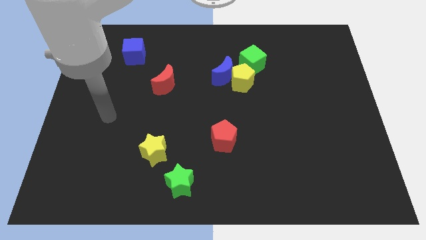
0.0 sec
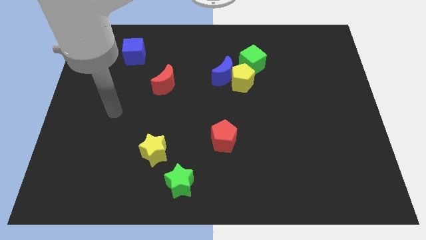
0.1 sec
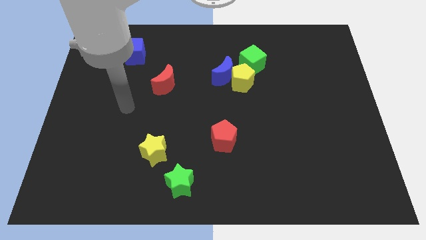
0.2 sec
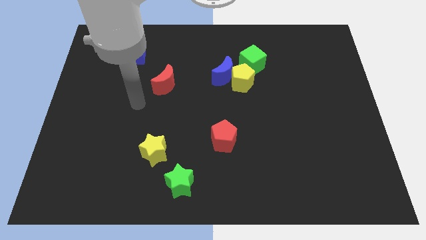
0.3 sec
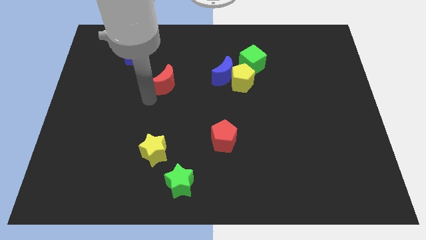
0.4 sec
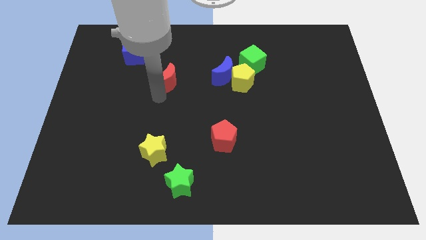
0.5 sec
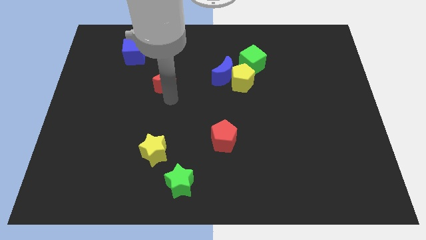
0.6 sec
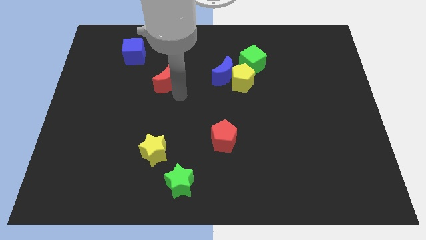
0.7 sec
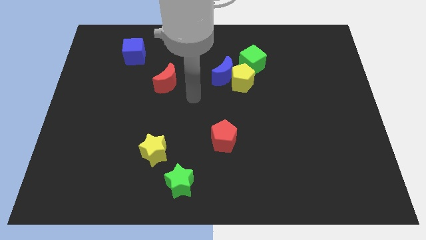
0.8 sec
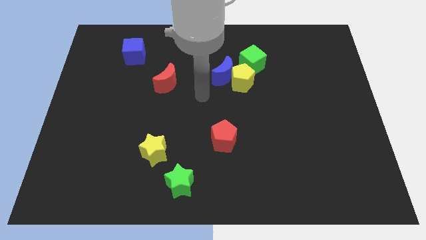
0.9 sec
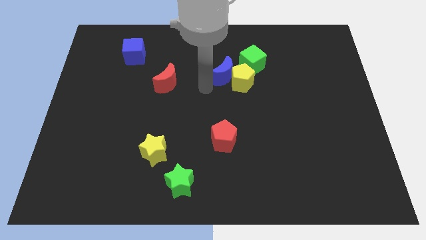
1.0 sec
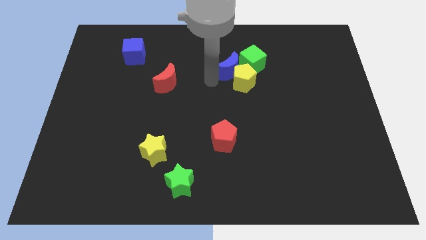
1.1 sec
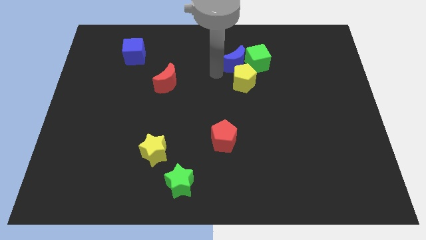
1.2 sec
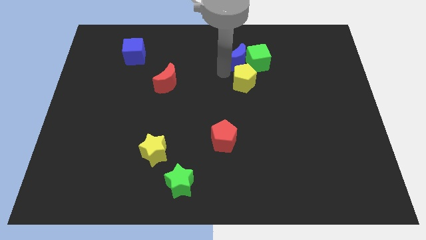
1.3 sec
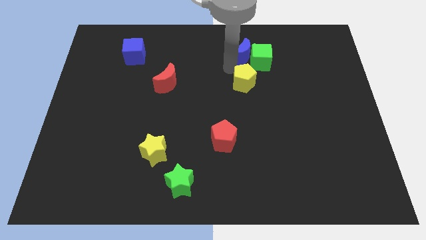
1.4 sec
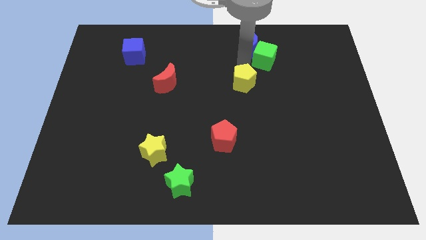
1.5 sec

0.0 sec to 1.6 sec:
move the yellow pentagon away from the blue moon and green cube

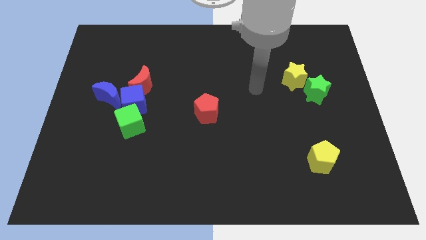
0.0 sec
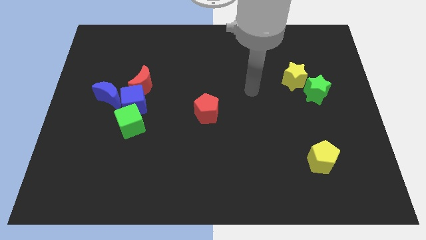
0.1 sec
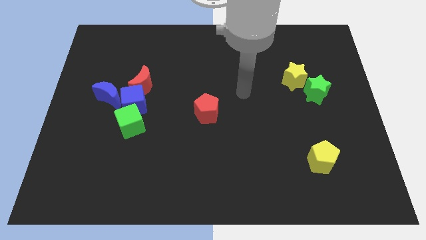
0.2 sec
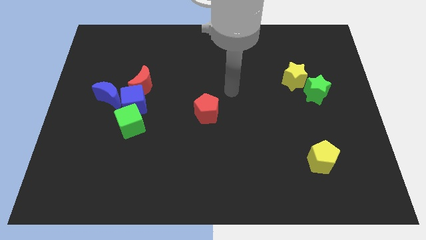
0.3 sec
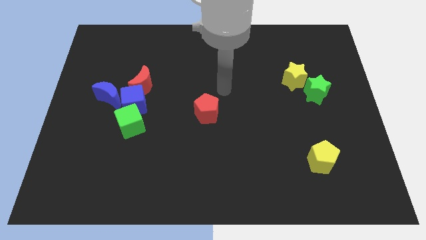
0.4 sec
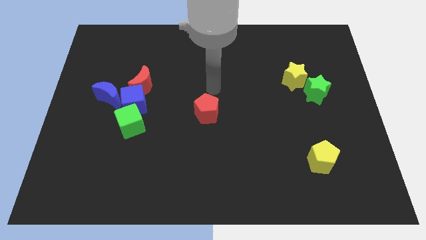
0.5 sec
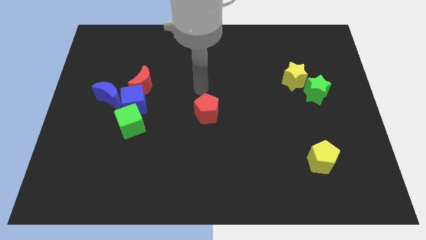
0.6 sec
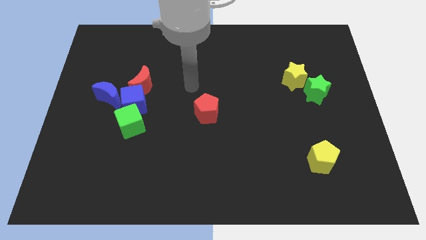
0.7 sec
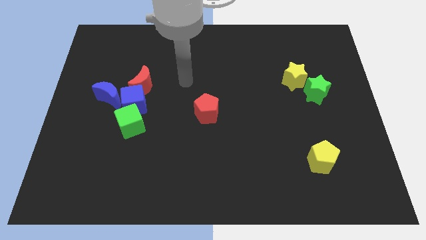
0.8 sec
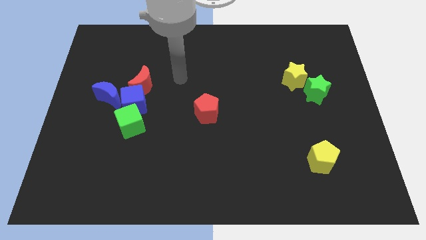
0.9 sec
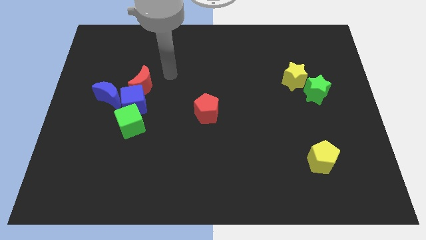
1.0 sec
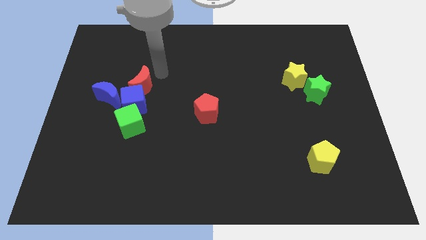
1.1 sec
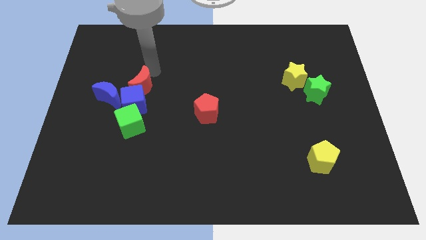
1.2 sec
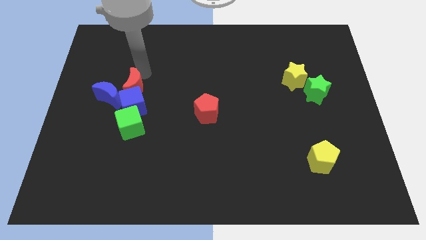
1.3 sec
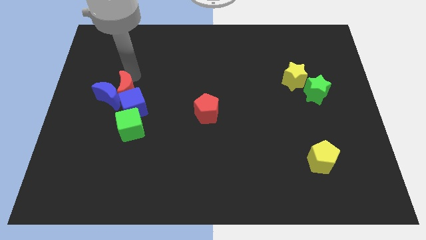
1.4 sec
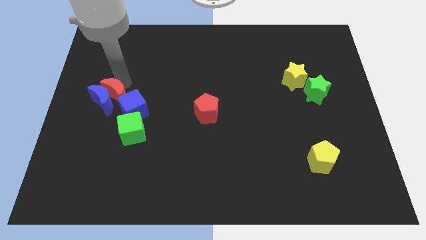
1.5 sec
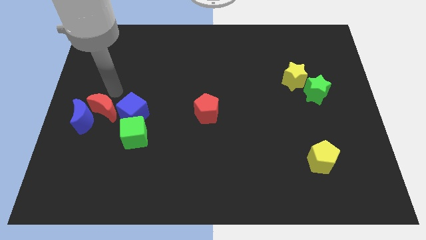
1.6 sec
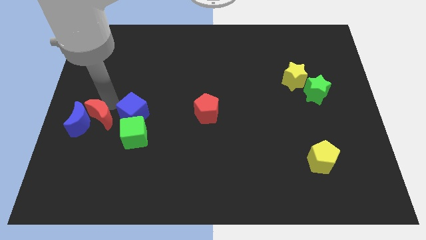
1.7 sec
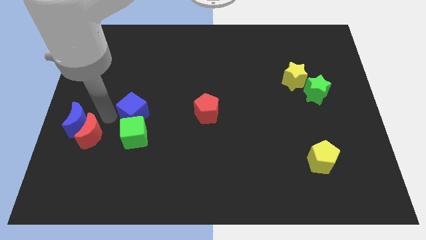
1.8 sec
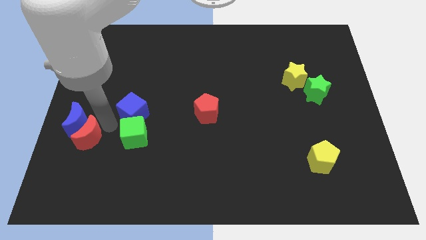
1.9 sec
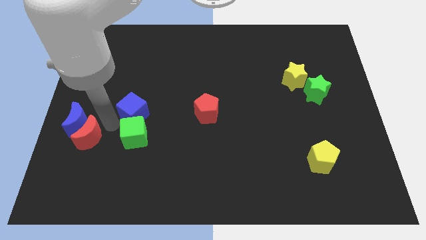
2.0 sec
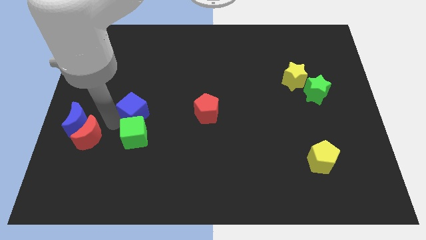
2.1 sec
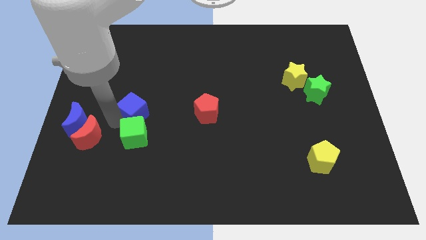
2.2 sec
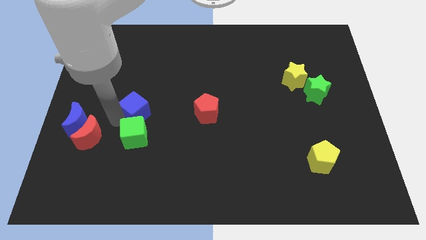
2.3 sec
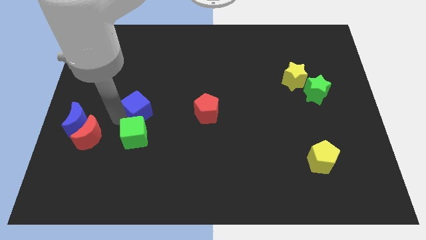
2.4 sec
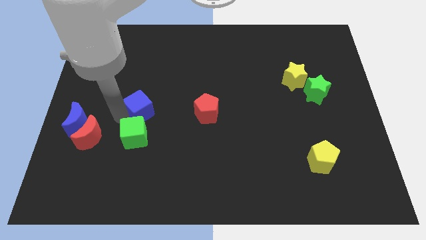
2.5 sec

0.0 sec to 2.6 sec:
move the blue cube away from the red moon, green cube, and blue moon

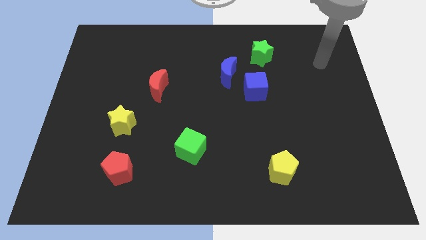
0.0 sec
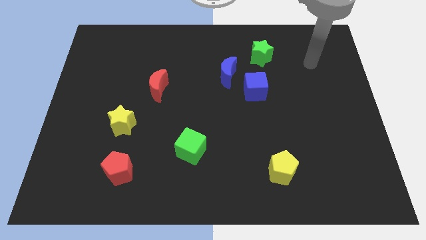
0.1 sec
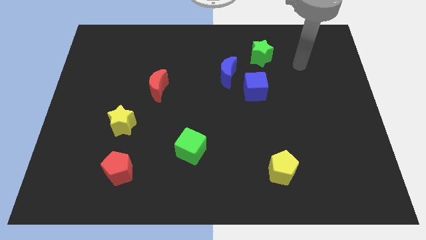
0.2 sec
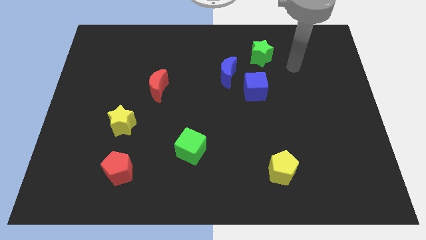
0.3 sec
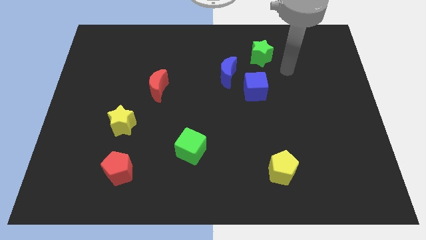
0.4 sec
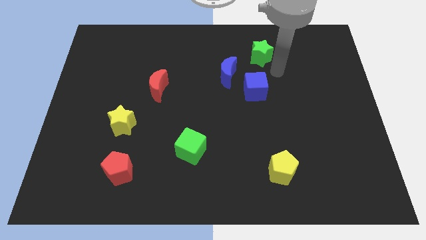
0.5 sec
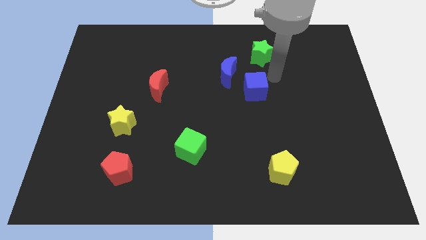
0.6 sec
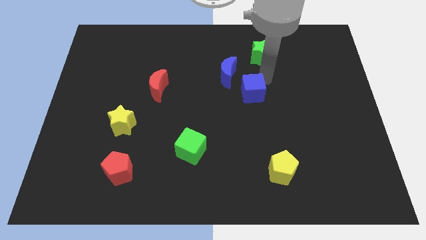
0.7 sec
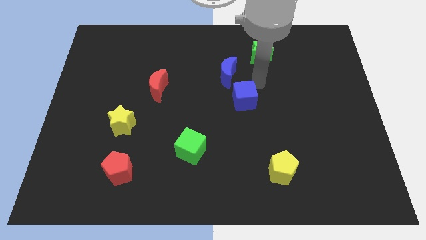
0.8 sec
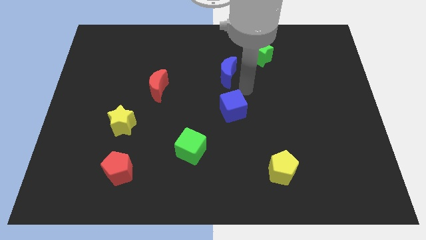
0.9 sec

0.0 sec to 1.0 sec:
move the blue moon away from the blue cube

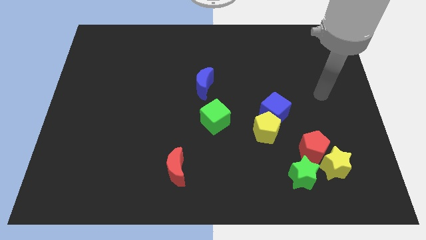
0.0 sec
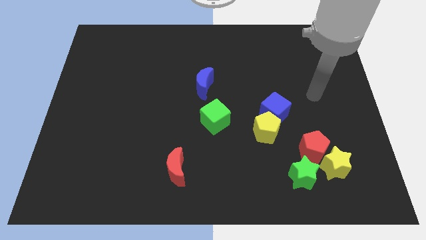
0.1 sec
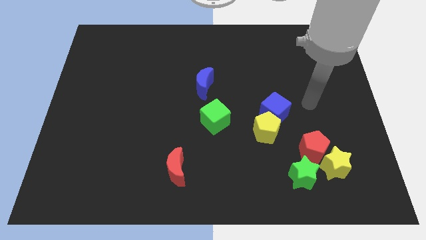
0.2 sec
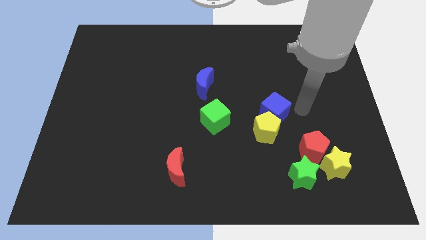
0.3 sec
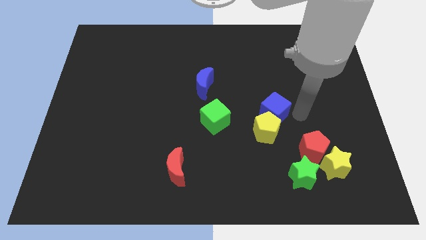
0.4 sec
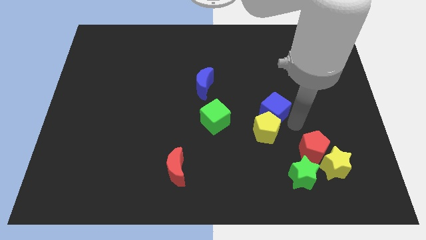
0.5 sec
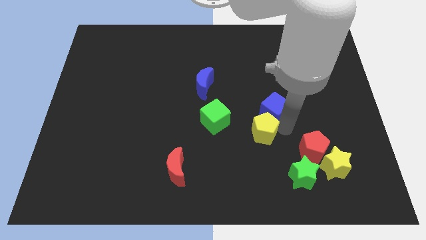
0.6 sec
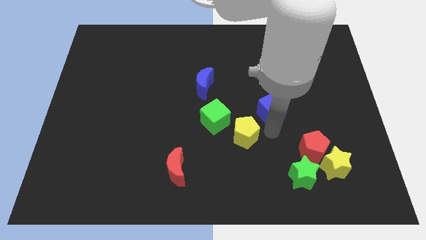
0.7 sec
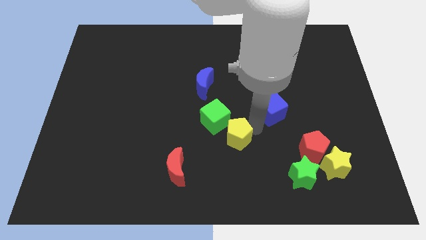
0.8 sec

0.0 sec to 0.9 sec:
separate the blue cube from the yellow pentagon

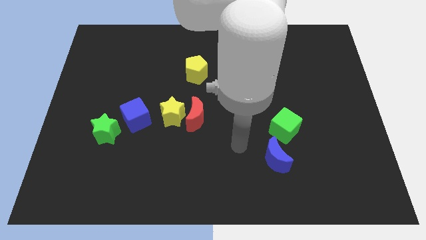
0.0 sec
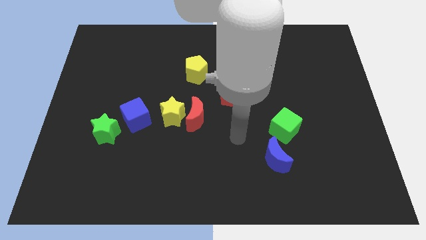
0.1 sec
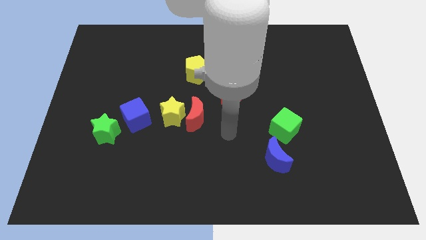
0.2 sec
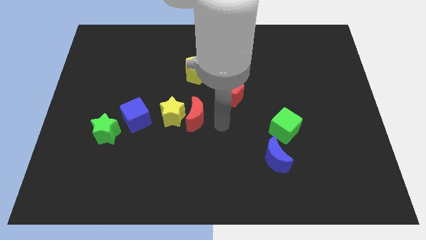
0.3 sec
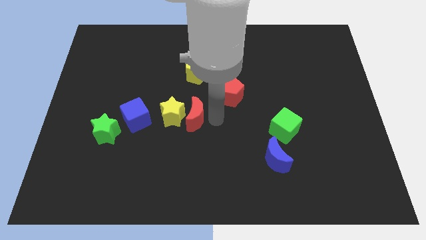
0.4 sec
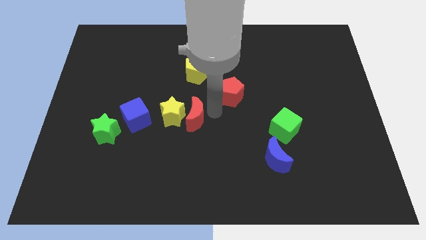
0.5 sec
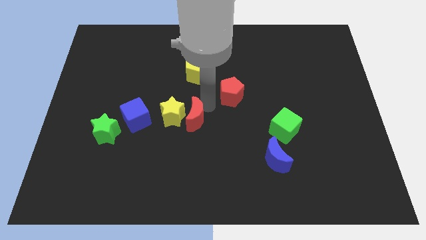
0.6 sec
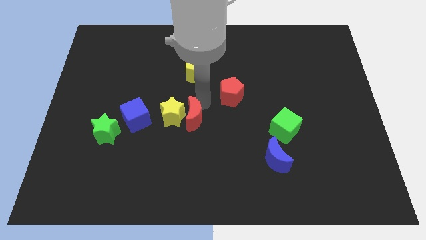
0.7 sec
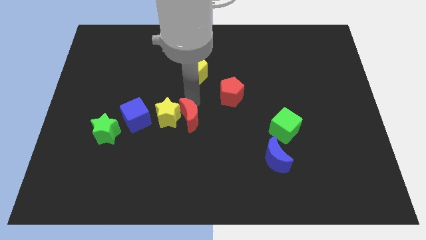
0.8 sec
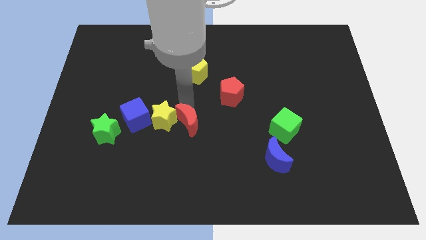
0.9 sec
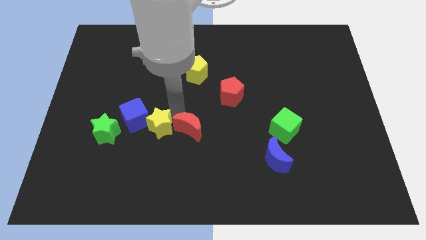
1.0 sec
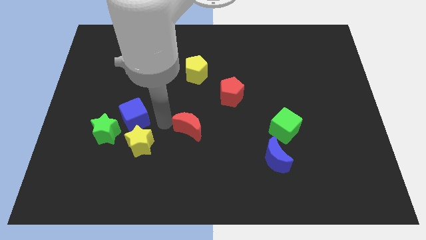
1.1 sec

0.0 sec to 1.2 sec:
separate the red moon from the yellow star

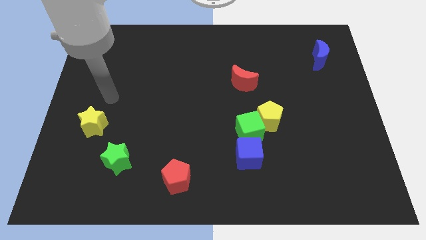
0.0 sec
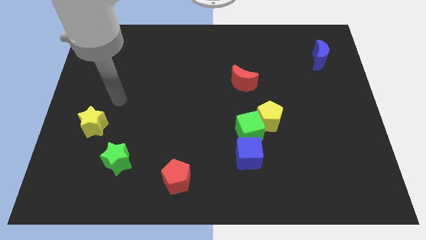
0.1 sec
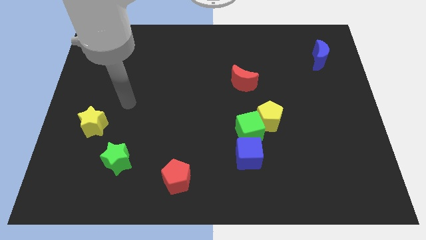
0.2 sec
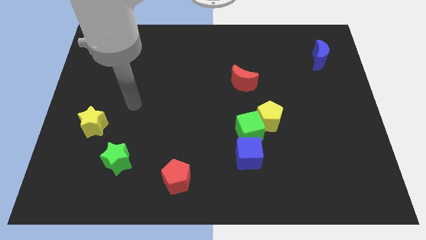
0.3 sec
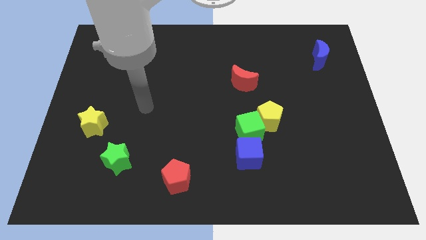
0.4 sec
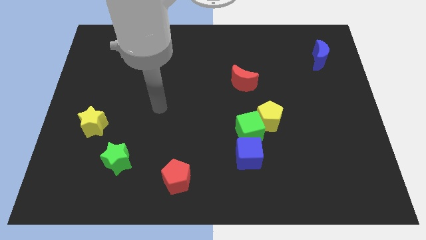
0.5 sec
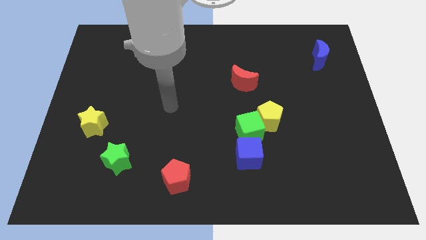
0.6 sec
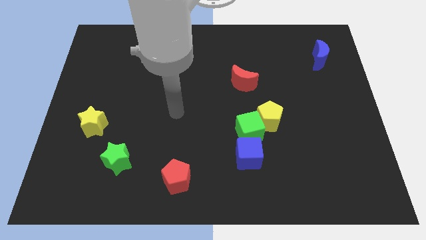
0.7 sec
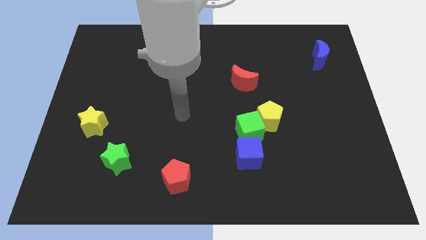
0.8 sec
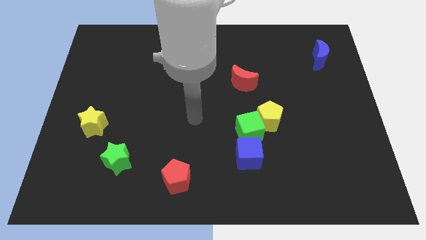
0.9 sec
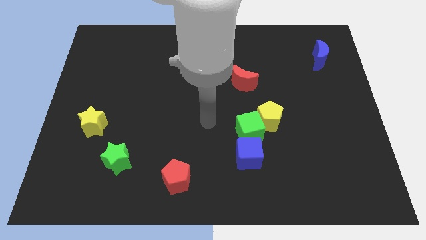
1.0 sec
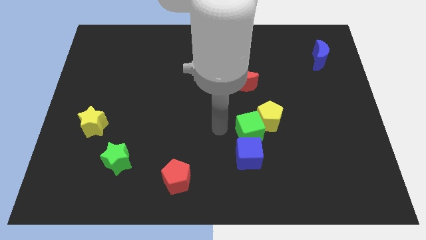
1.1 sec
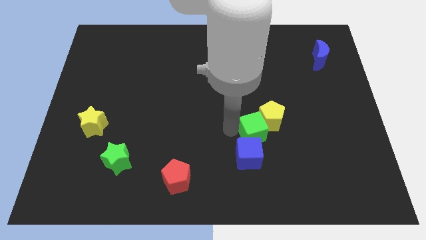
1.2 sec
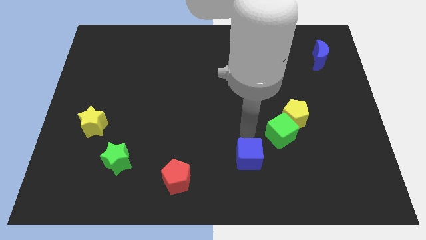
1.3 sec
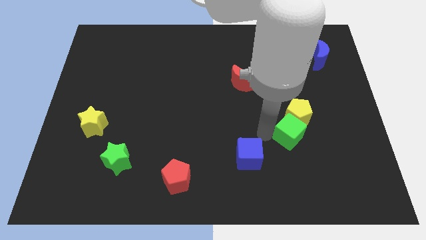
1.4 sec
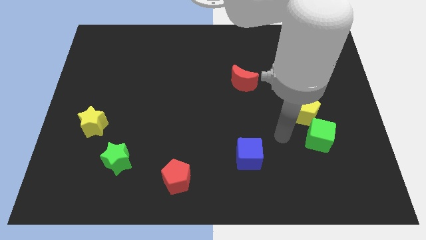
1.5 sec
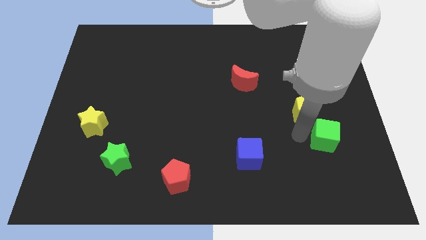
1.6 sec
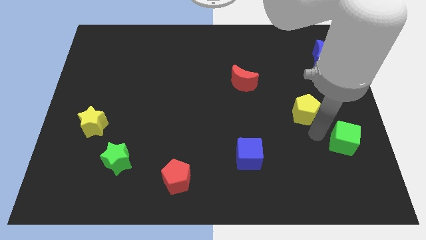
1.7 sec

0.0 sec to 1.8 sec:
move the yellow pentagon away from the green cube

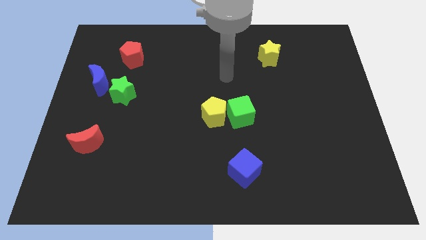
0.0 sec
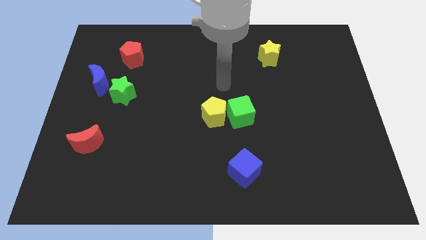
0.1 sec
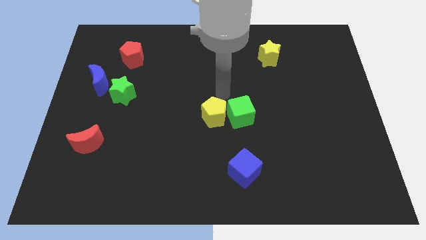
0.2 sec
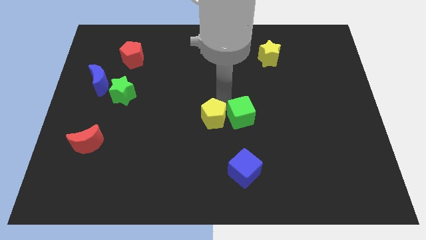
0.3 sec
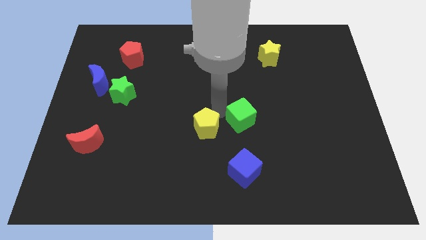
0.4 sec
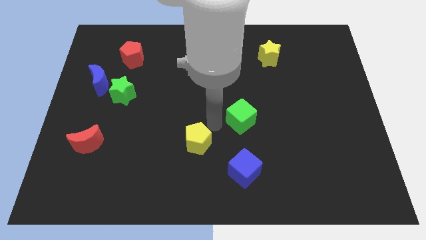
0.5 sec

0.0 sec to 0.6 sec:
move the green cube away from the yellow pentagon
